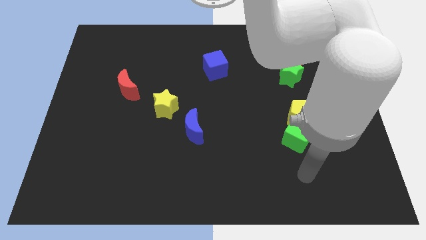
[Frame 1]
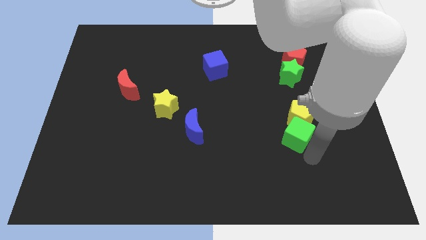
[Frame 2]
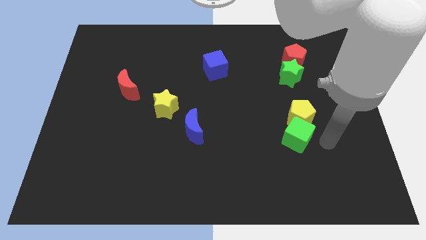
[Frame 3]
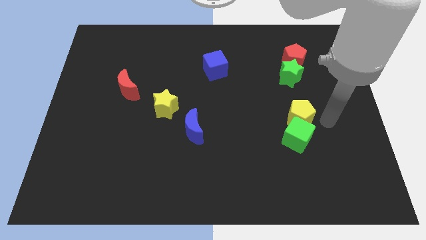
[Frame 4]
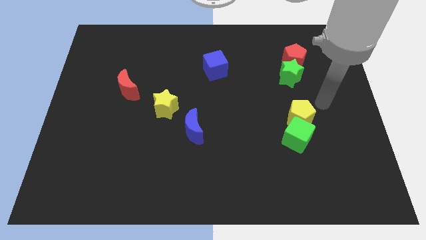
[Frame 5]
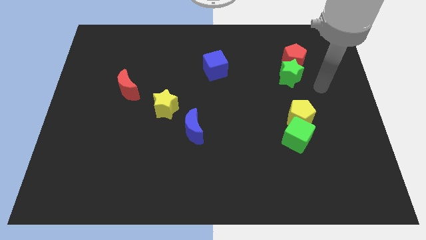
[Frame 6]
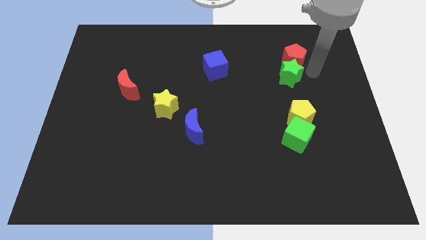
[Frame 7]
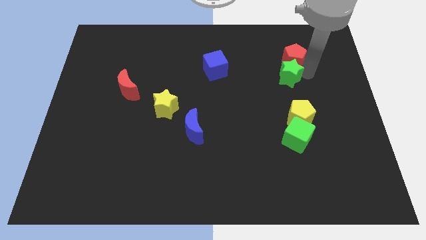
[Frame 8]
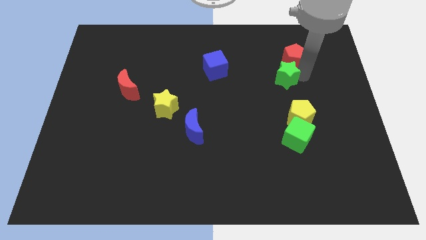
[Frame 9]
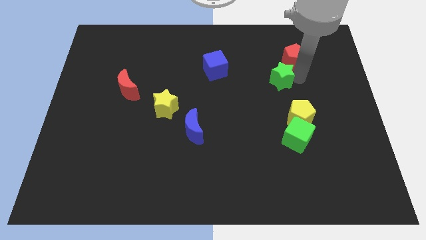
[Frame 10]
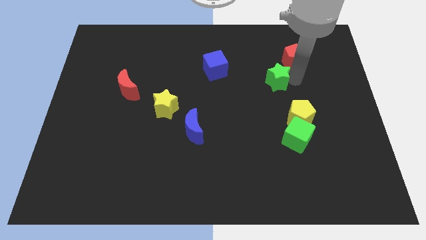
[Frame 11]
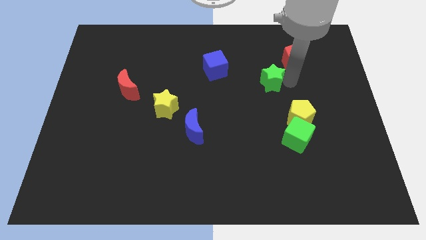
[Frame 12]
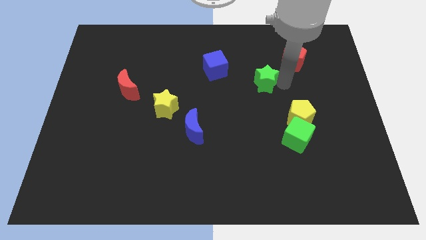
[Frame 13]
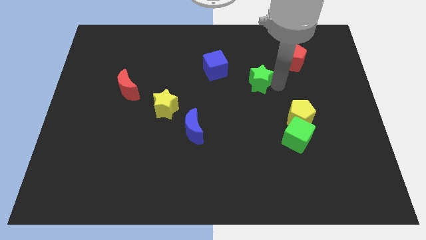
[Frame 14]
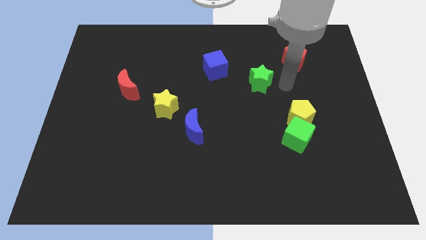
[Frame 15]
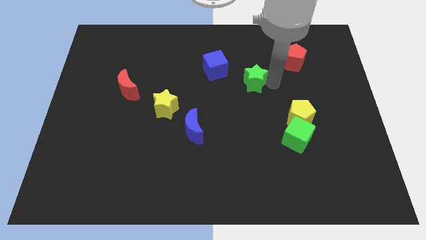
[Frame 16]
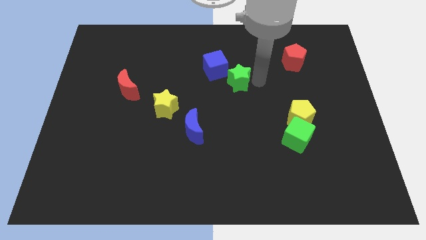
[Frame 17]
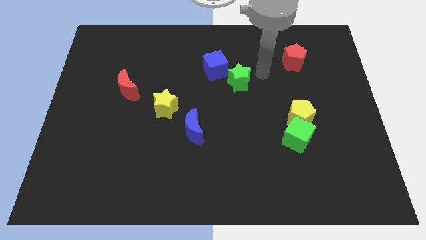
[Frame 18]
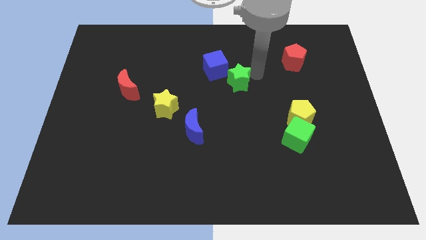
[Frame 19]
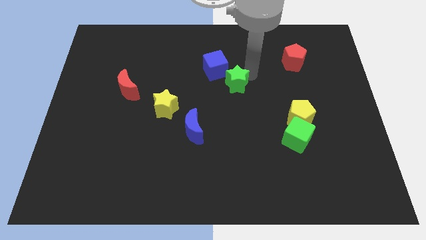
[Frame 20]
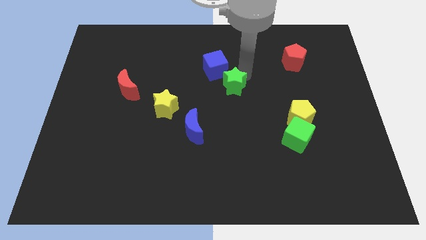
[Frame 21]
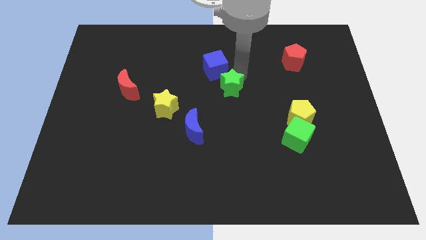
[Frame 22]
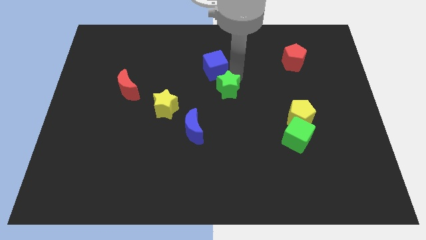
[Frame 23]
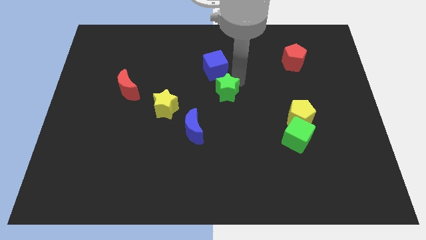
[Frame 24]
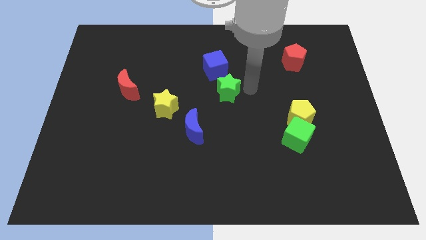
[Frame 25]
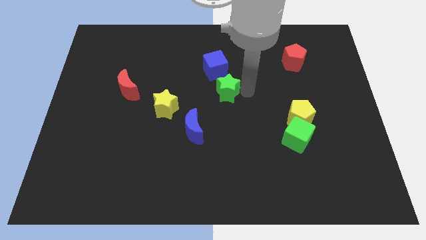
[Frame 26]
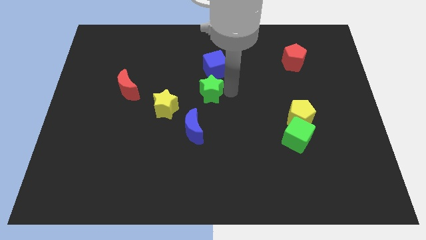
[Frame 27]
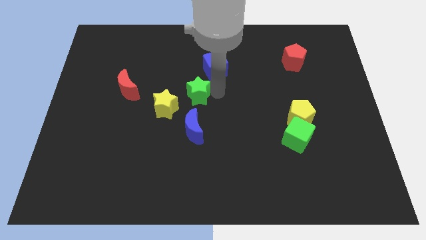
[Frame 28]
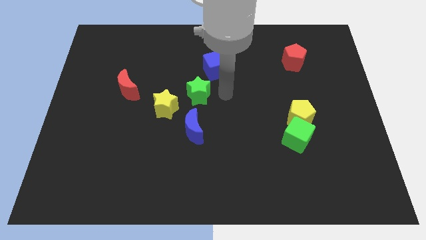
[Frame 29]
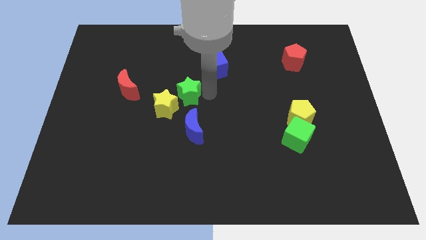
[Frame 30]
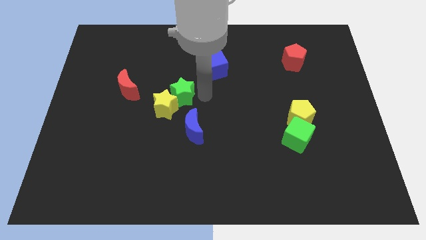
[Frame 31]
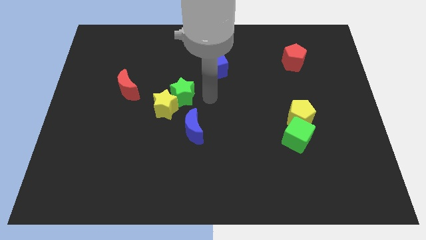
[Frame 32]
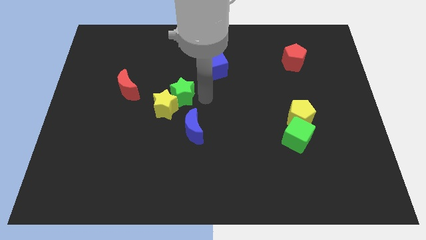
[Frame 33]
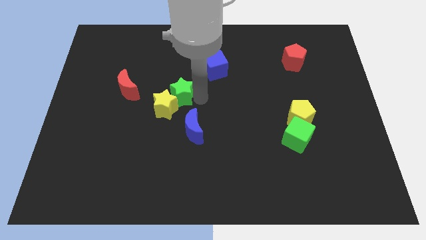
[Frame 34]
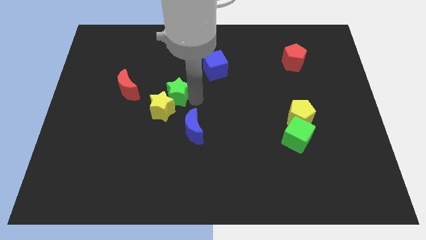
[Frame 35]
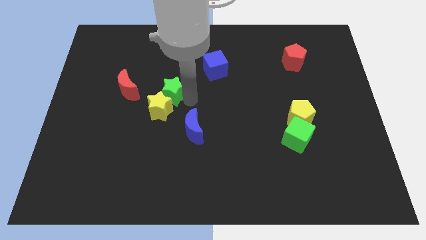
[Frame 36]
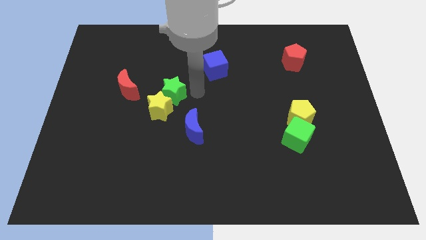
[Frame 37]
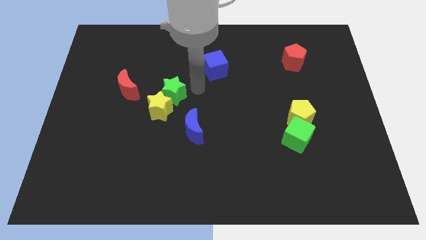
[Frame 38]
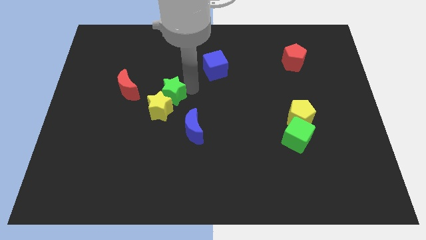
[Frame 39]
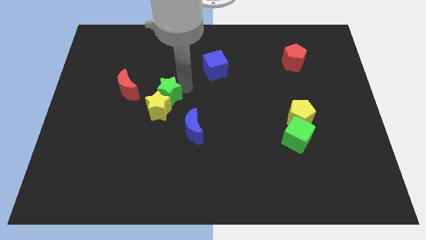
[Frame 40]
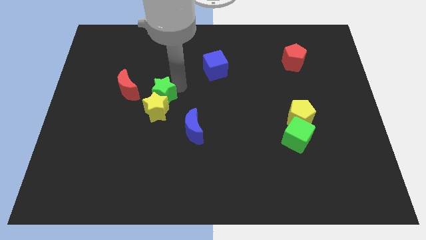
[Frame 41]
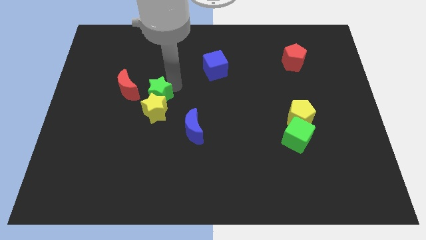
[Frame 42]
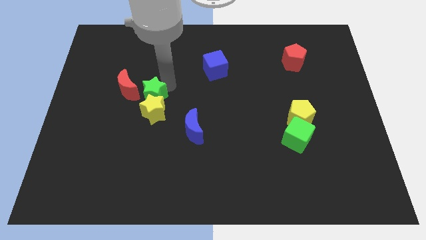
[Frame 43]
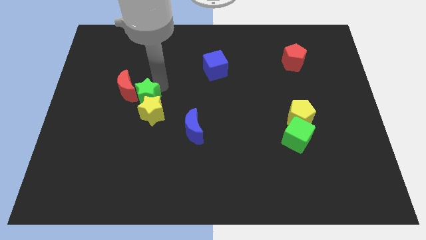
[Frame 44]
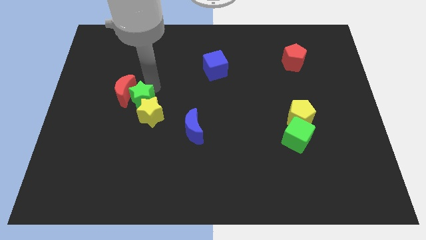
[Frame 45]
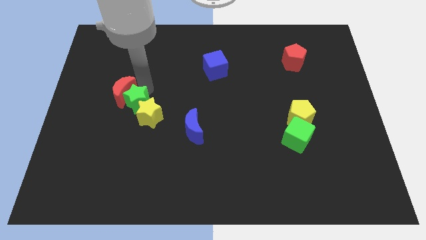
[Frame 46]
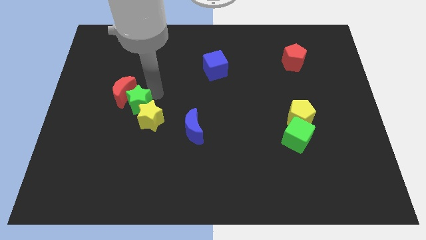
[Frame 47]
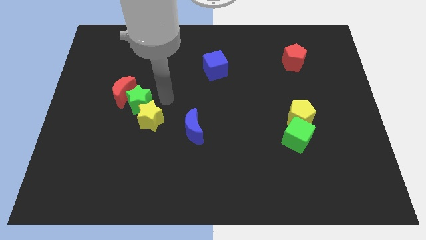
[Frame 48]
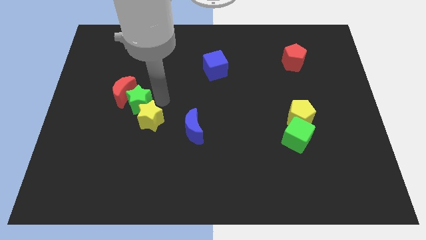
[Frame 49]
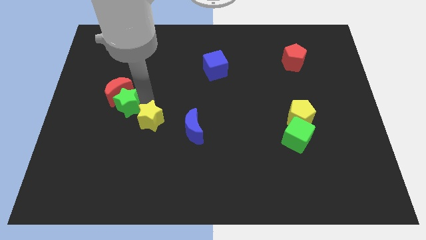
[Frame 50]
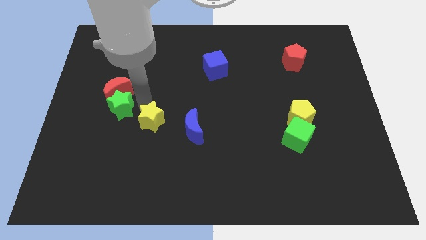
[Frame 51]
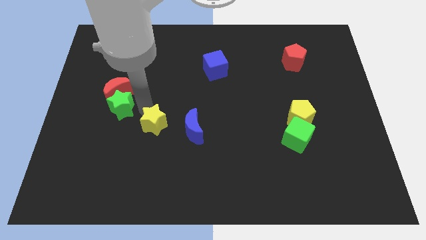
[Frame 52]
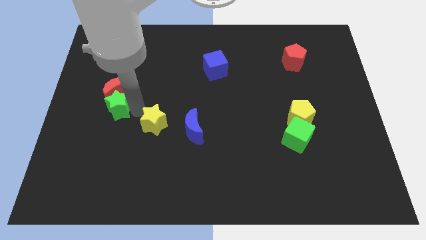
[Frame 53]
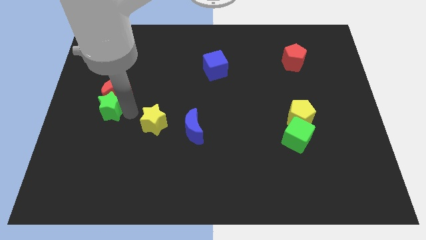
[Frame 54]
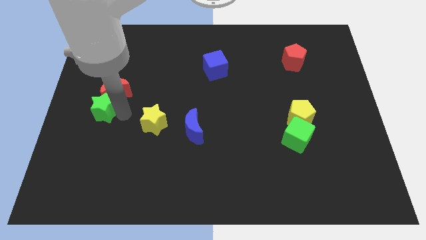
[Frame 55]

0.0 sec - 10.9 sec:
slide the green star to the left side of the board
